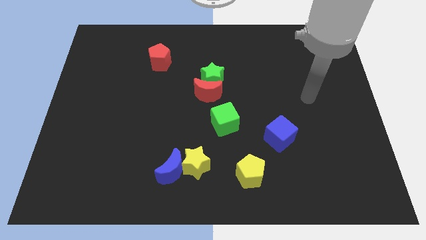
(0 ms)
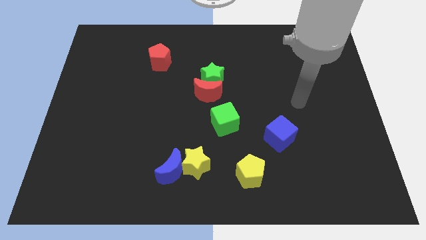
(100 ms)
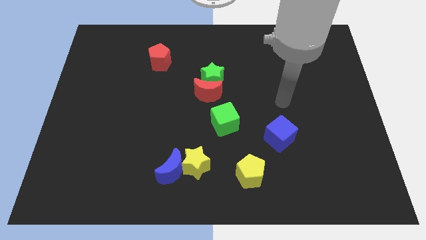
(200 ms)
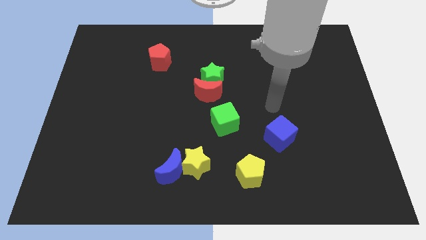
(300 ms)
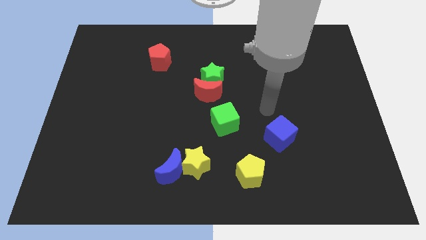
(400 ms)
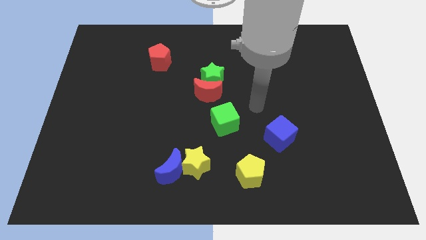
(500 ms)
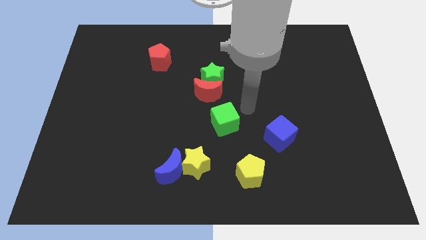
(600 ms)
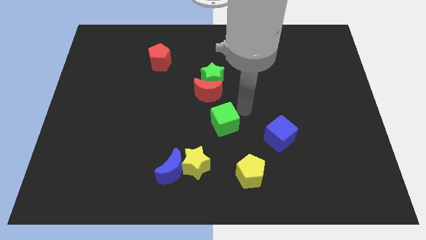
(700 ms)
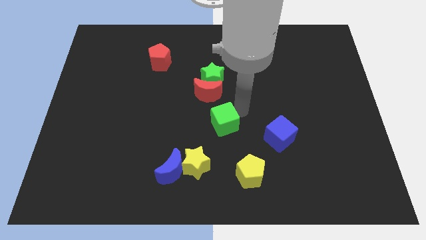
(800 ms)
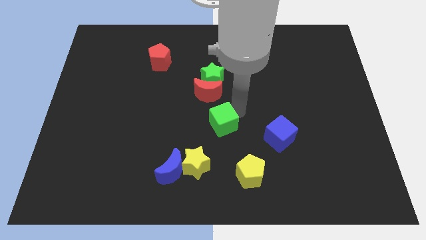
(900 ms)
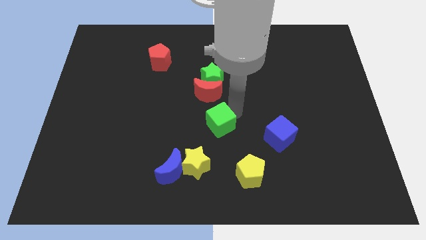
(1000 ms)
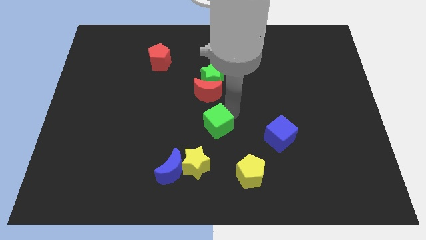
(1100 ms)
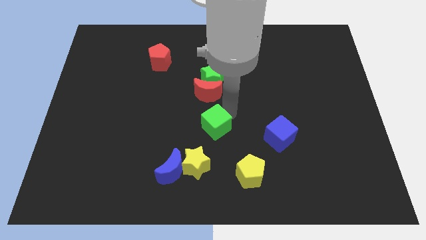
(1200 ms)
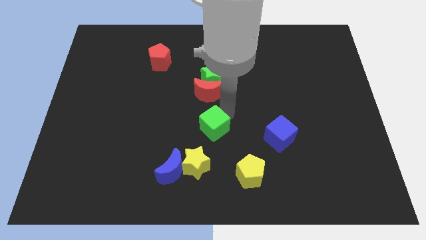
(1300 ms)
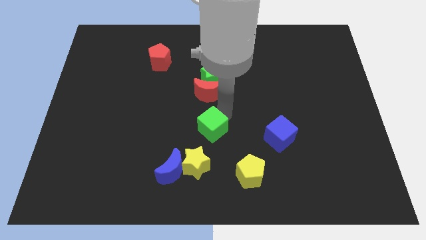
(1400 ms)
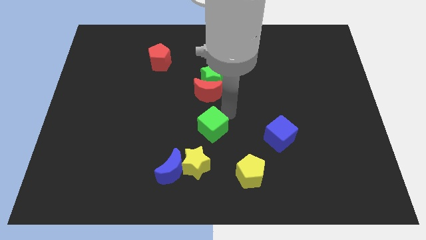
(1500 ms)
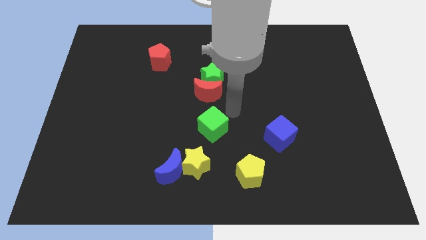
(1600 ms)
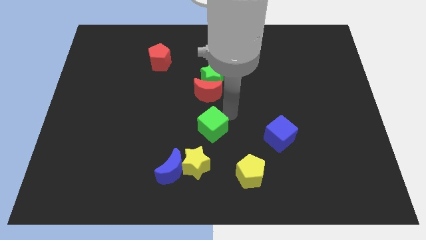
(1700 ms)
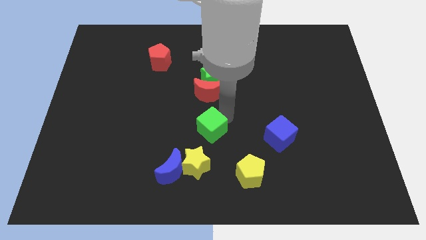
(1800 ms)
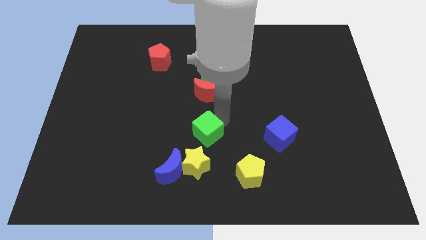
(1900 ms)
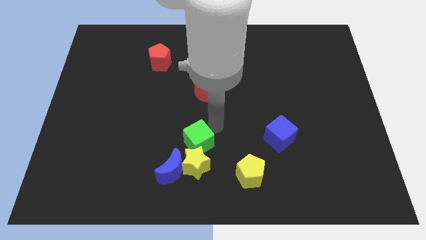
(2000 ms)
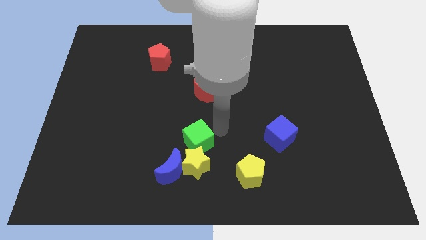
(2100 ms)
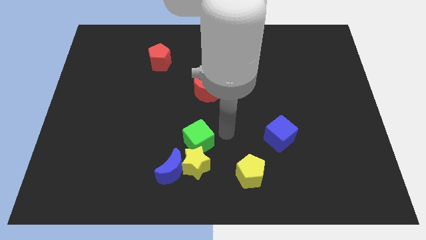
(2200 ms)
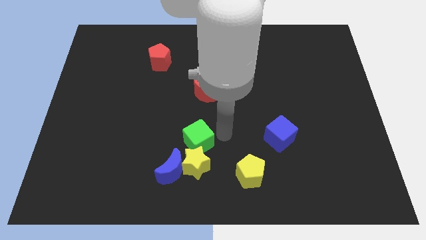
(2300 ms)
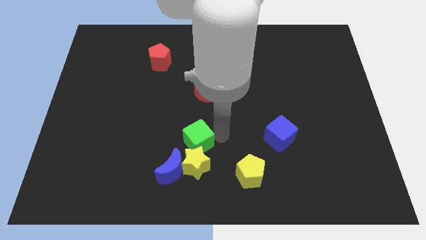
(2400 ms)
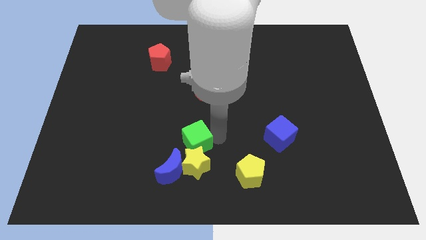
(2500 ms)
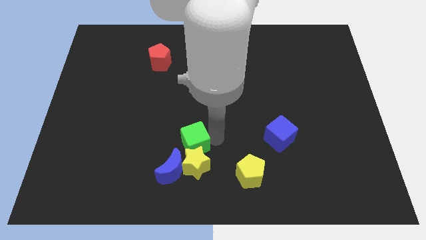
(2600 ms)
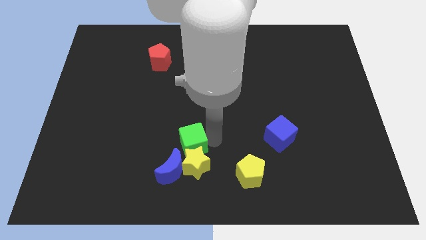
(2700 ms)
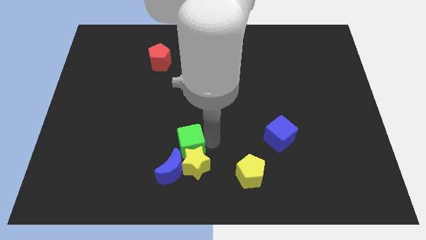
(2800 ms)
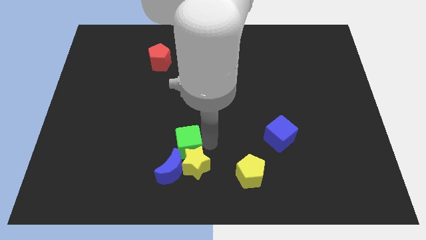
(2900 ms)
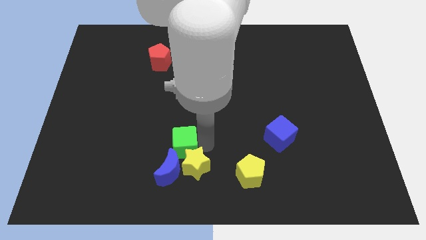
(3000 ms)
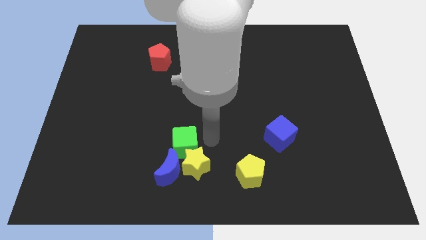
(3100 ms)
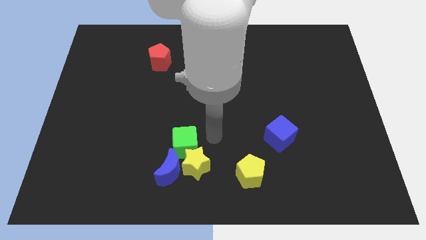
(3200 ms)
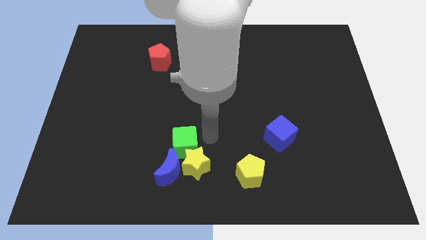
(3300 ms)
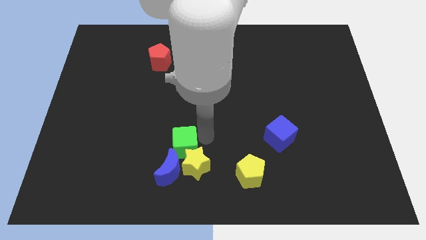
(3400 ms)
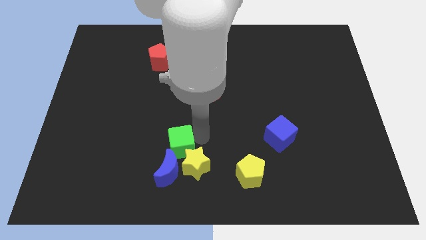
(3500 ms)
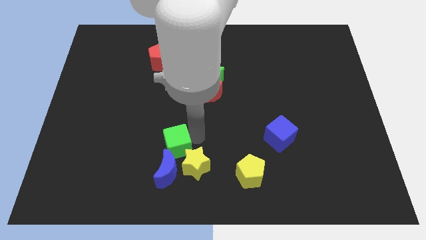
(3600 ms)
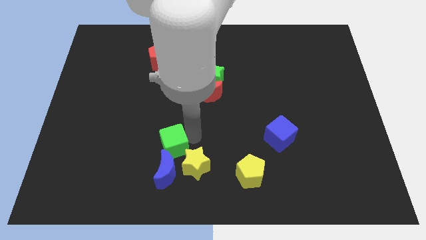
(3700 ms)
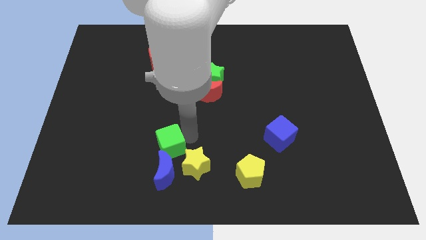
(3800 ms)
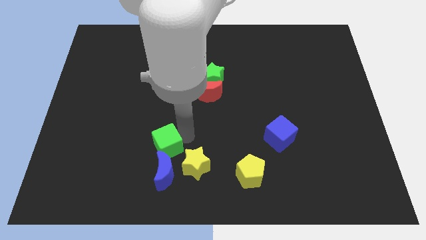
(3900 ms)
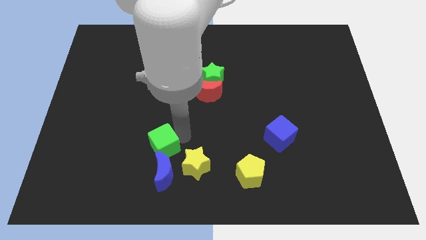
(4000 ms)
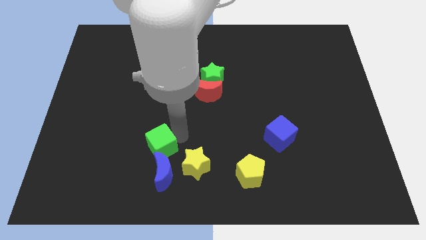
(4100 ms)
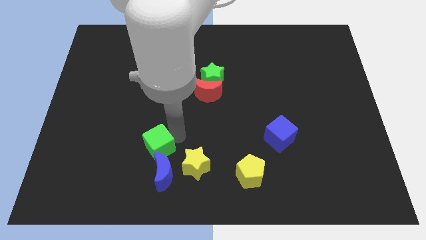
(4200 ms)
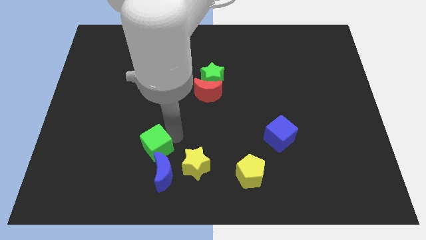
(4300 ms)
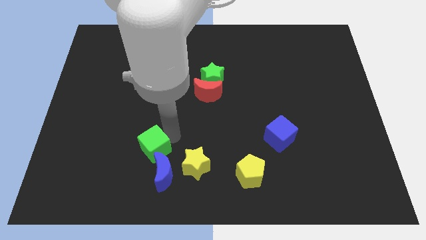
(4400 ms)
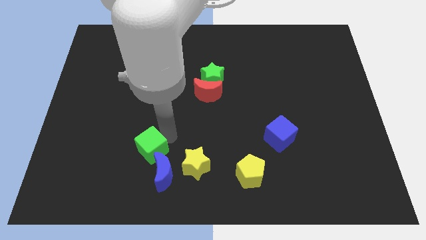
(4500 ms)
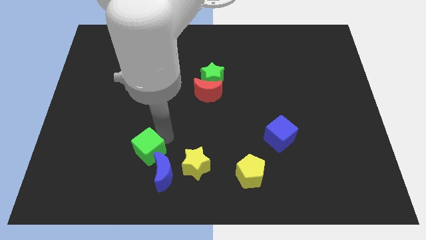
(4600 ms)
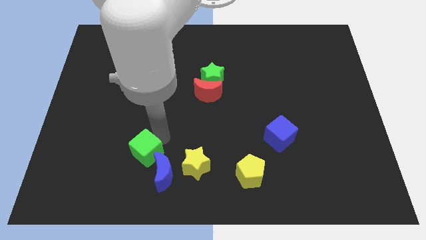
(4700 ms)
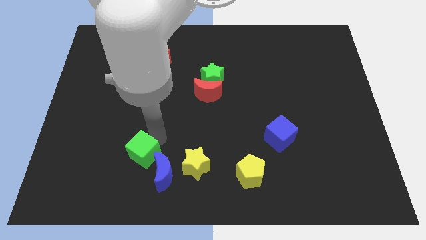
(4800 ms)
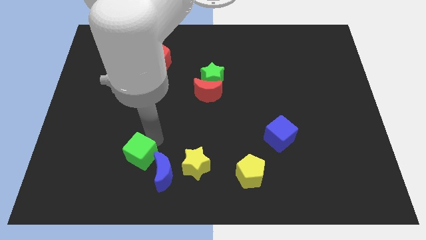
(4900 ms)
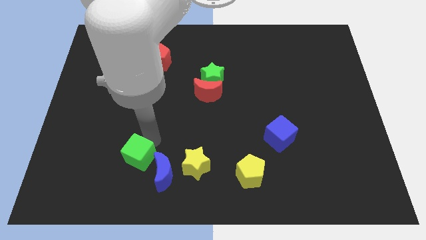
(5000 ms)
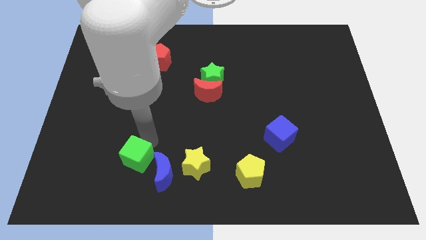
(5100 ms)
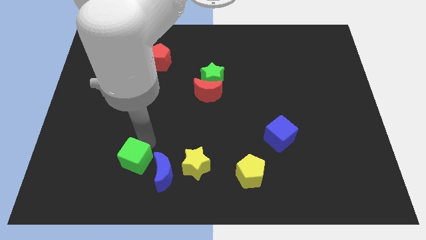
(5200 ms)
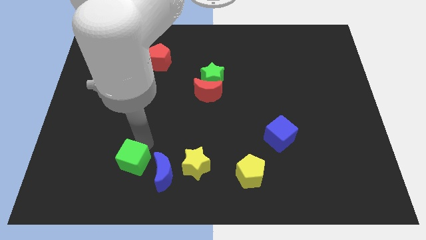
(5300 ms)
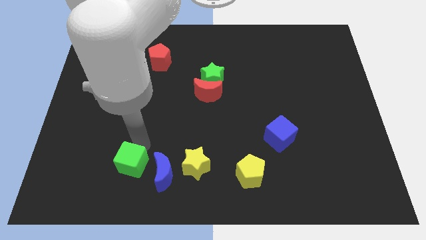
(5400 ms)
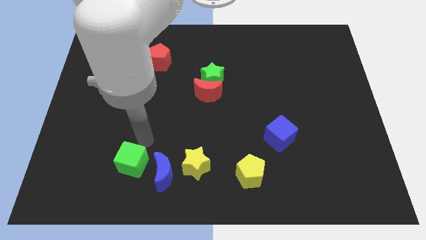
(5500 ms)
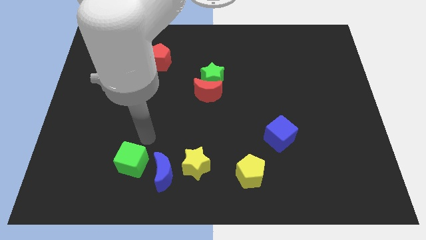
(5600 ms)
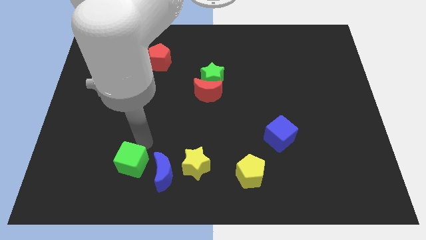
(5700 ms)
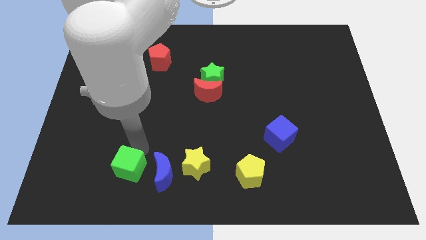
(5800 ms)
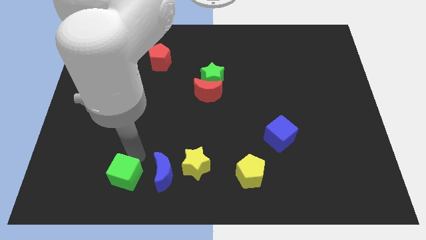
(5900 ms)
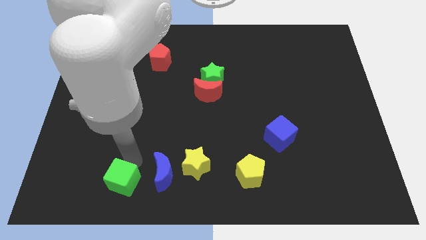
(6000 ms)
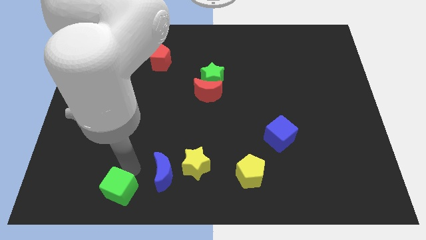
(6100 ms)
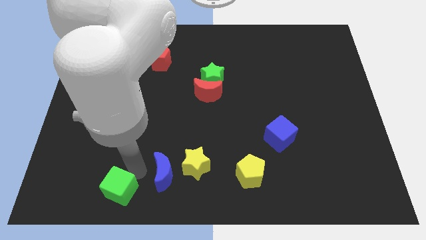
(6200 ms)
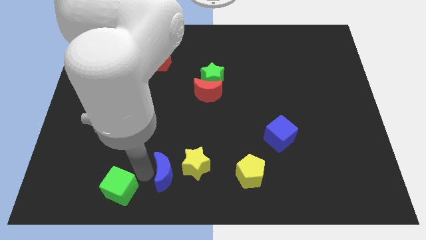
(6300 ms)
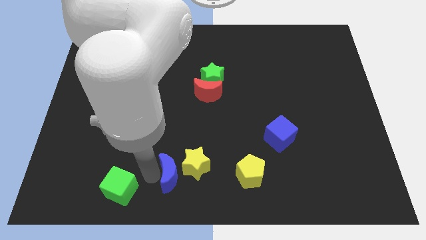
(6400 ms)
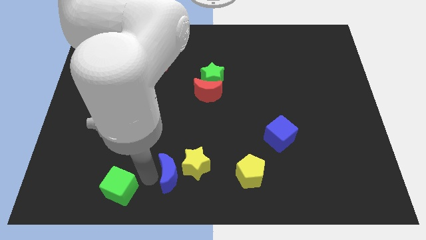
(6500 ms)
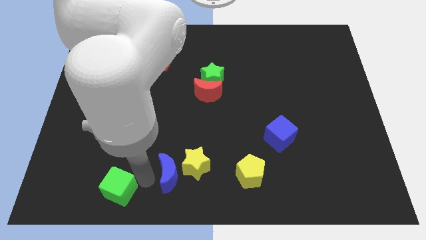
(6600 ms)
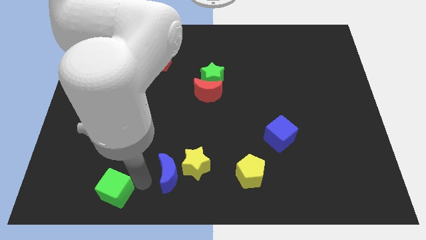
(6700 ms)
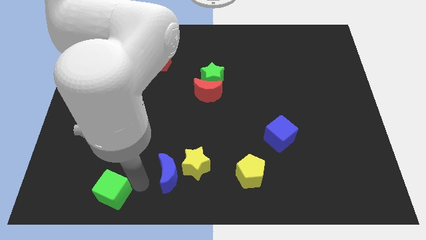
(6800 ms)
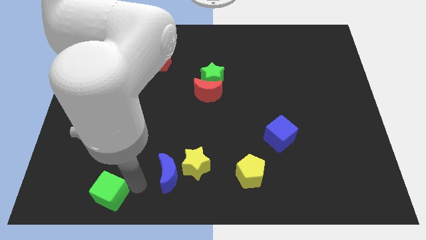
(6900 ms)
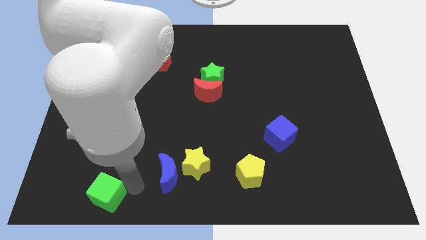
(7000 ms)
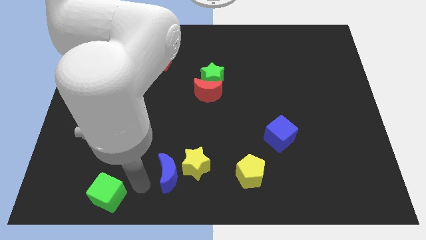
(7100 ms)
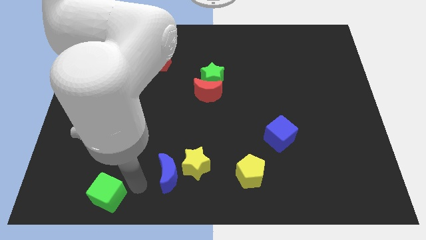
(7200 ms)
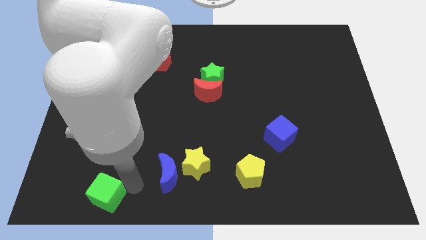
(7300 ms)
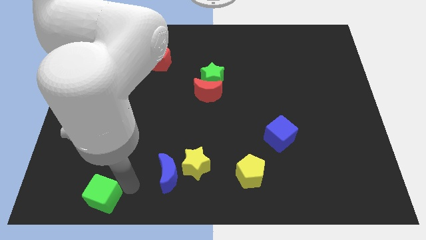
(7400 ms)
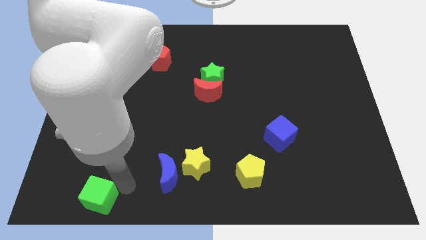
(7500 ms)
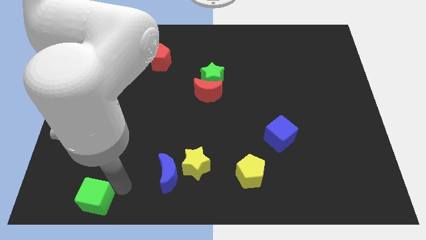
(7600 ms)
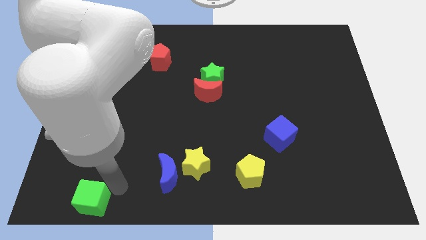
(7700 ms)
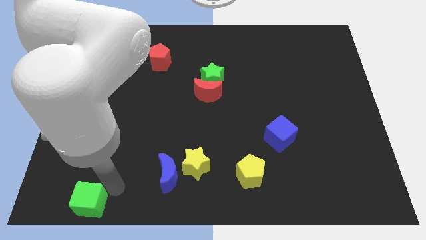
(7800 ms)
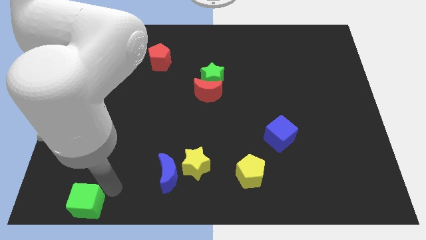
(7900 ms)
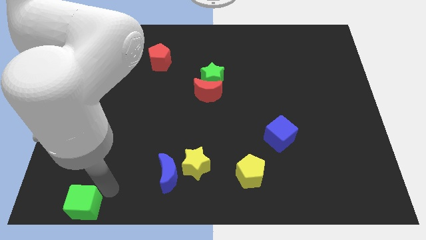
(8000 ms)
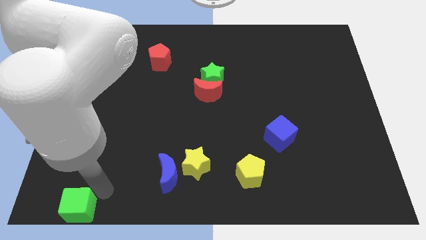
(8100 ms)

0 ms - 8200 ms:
move the green cube to the lower left corner

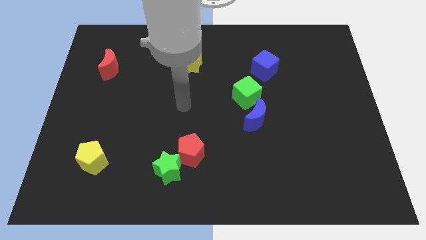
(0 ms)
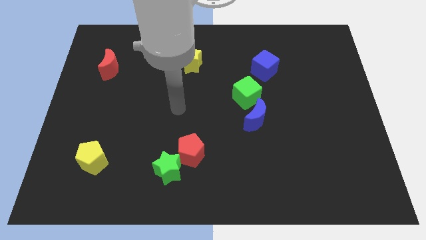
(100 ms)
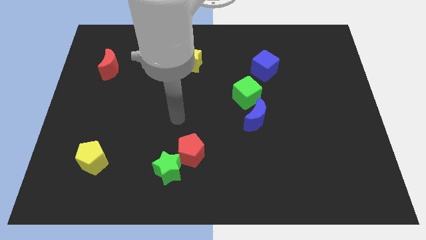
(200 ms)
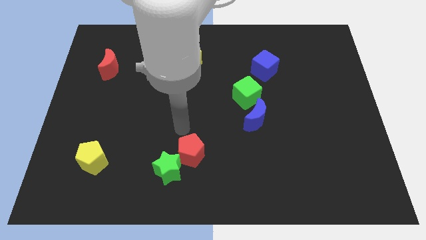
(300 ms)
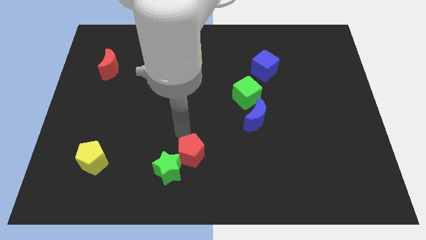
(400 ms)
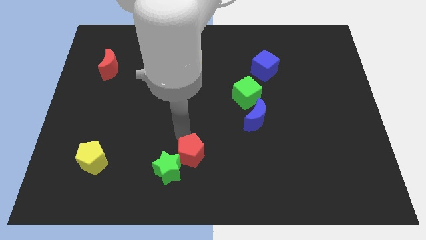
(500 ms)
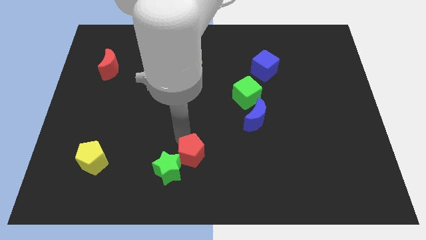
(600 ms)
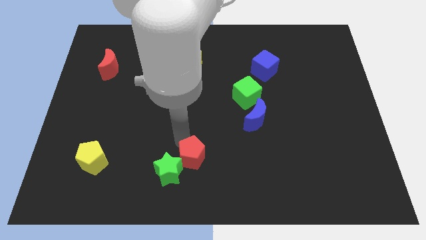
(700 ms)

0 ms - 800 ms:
put the red pentagon to the bottom
